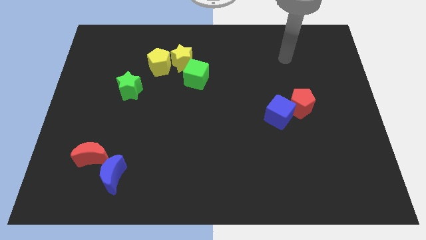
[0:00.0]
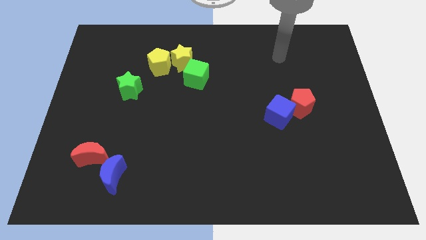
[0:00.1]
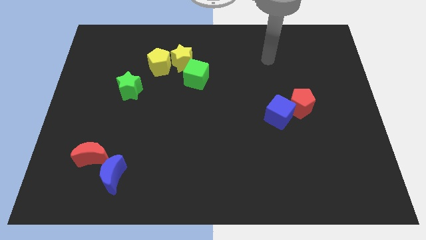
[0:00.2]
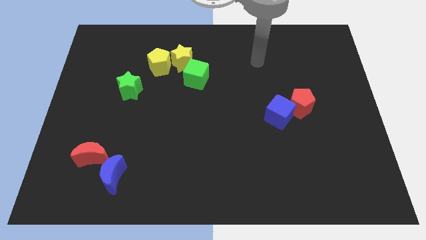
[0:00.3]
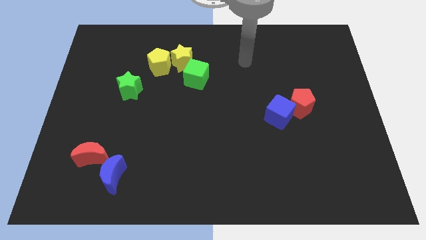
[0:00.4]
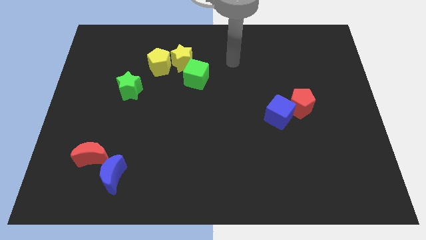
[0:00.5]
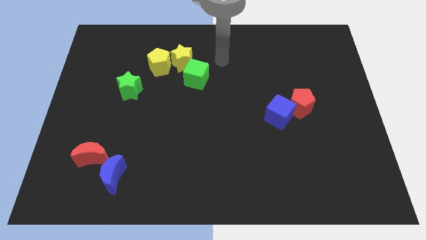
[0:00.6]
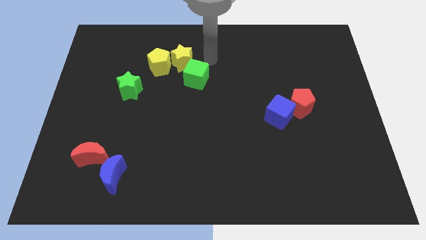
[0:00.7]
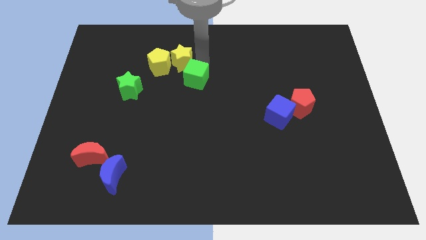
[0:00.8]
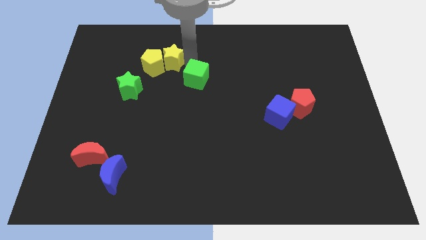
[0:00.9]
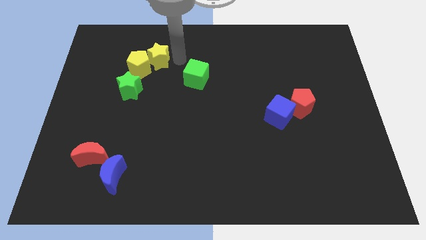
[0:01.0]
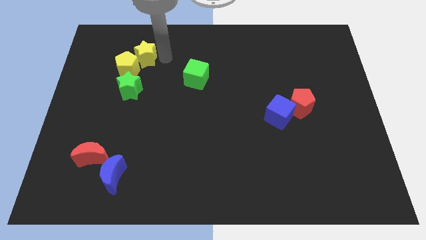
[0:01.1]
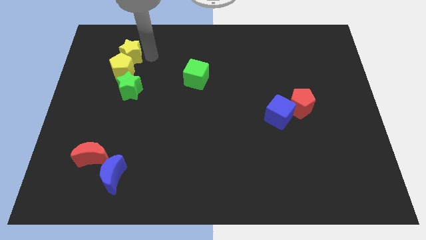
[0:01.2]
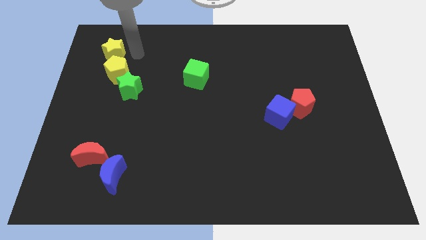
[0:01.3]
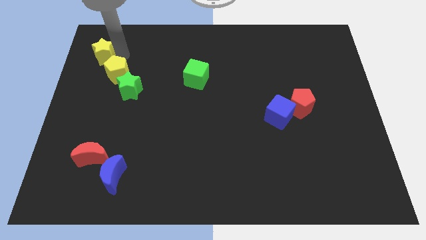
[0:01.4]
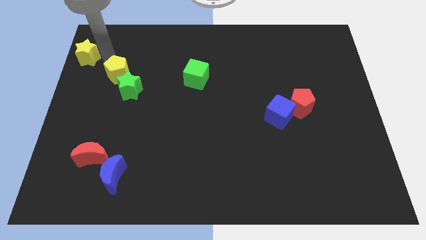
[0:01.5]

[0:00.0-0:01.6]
move the yellow pentagon away from the yellow star

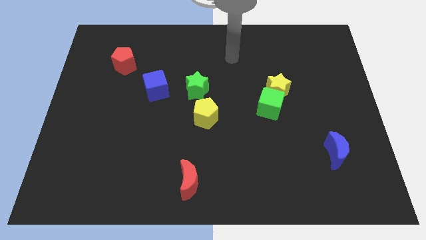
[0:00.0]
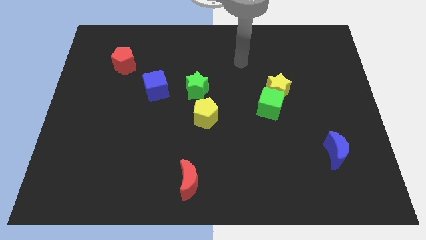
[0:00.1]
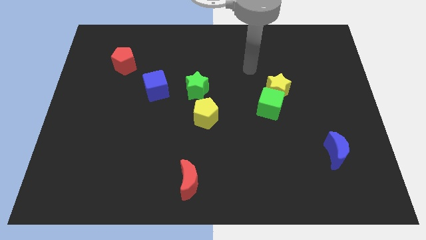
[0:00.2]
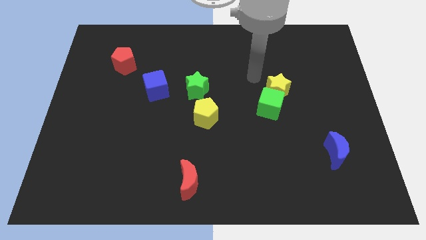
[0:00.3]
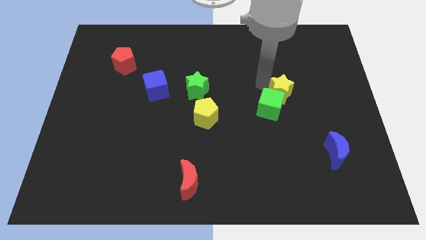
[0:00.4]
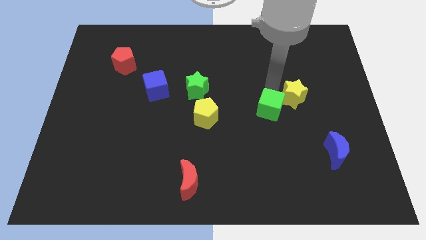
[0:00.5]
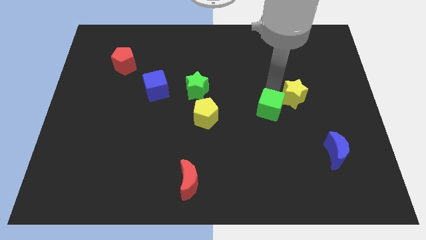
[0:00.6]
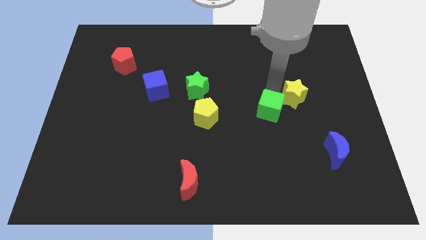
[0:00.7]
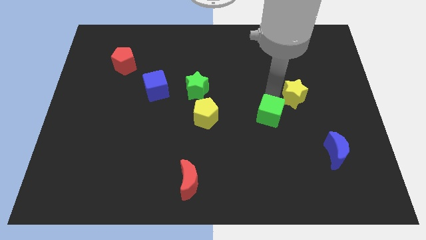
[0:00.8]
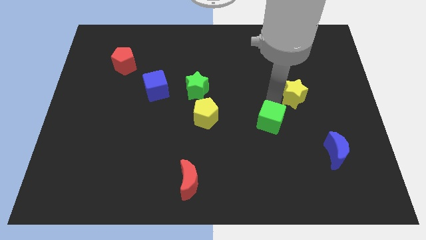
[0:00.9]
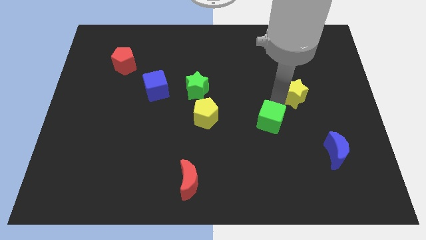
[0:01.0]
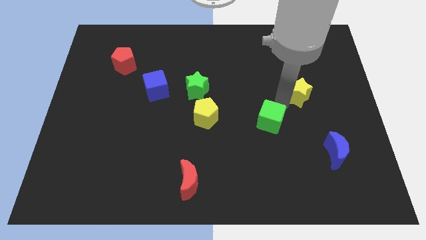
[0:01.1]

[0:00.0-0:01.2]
pull the green cube apart from the yellow star

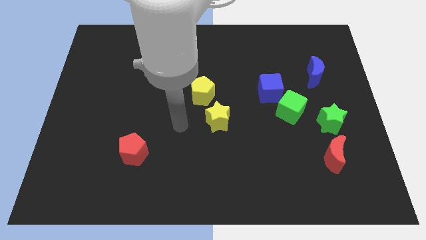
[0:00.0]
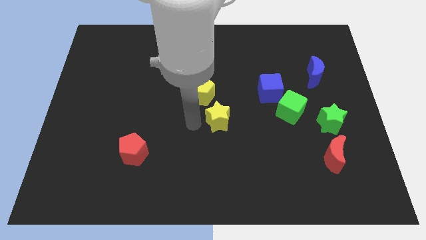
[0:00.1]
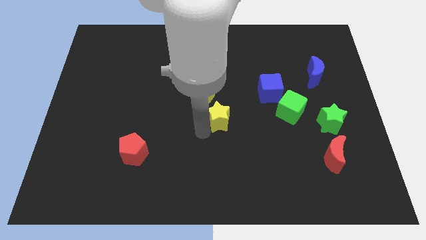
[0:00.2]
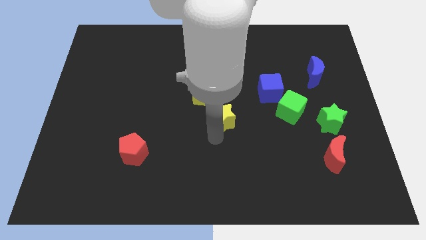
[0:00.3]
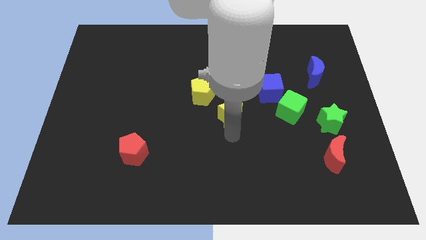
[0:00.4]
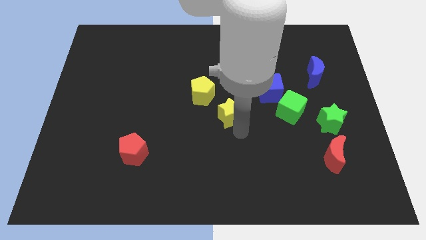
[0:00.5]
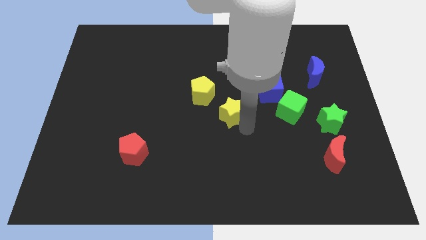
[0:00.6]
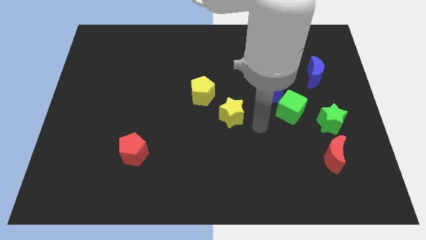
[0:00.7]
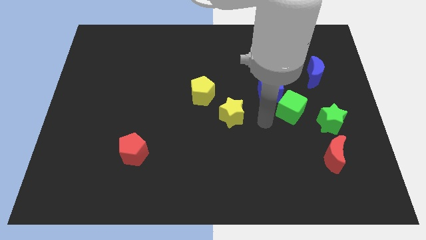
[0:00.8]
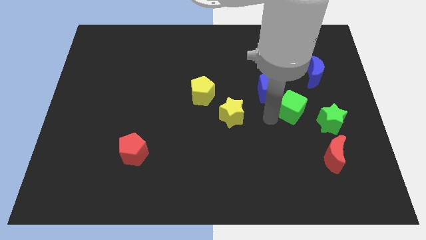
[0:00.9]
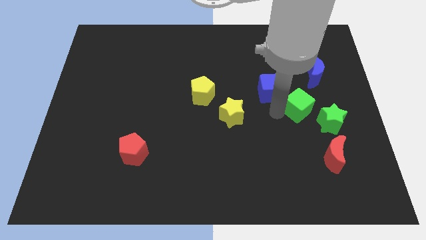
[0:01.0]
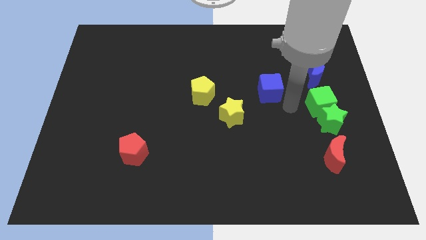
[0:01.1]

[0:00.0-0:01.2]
pull the blue cube apart from the green cube

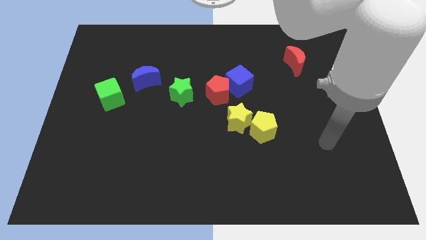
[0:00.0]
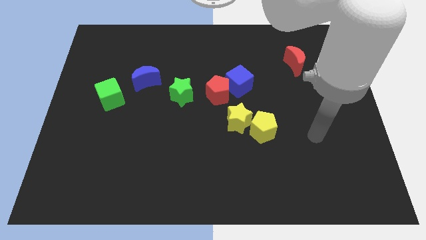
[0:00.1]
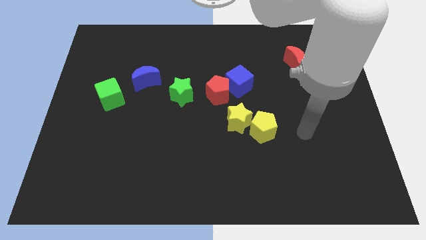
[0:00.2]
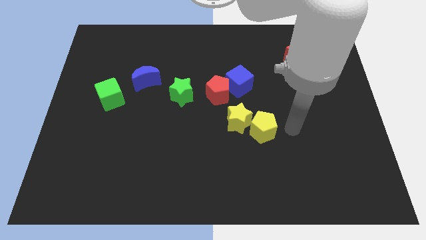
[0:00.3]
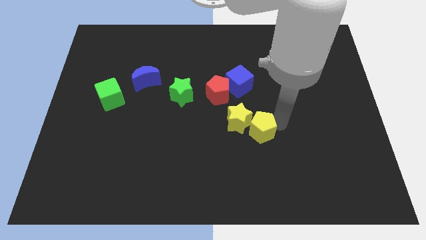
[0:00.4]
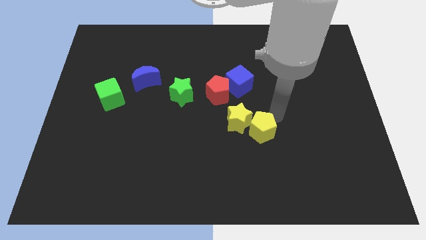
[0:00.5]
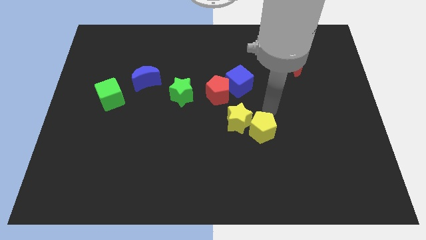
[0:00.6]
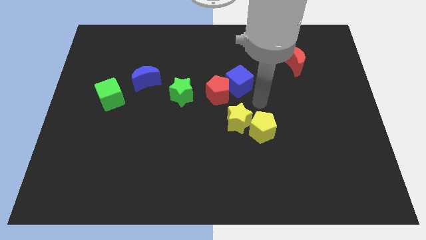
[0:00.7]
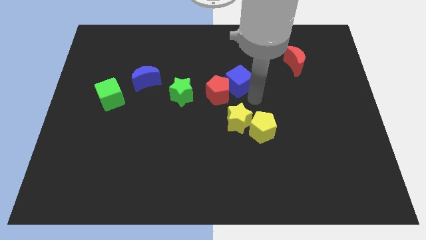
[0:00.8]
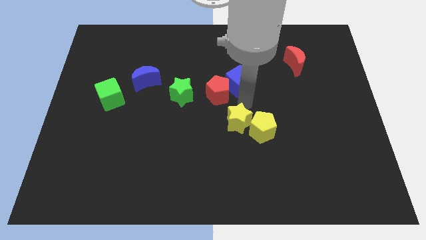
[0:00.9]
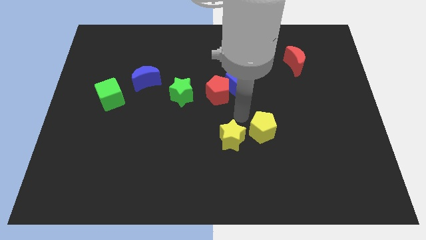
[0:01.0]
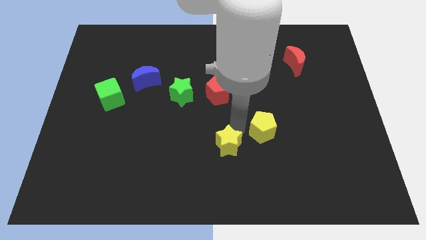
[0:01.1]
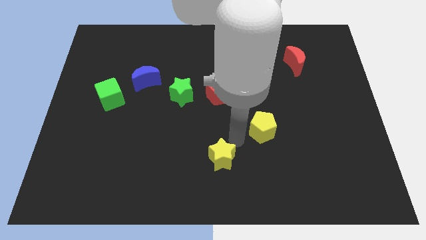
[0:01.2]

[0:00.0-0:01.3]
pull the yellow pentagon apart from the yellow star

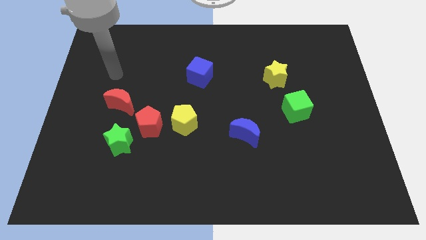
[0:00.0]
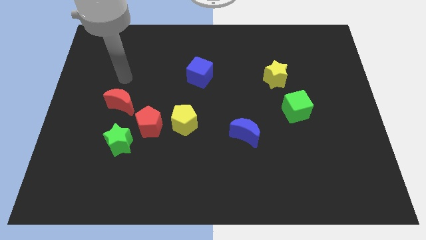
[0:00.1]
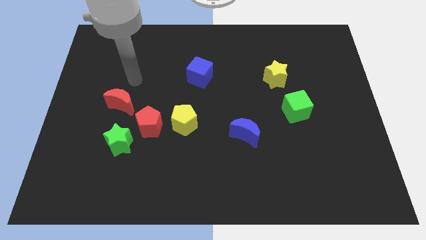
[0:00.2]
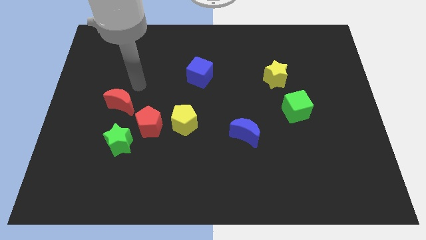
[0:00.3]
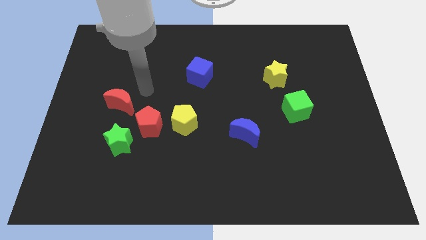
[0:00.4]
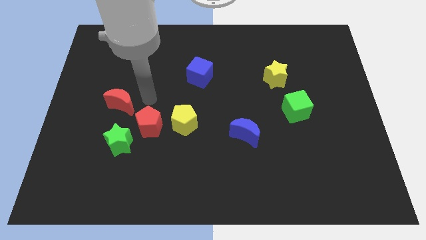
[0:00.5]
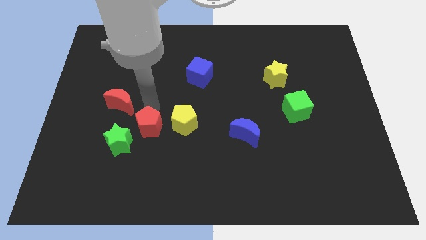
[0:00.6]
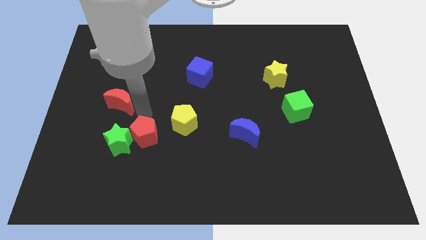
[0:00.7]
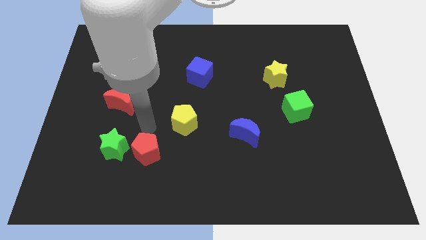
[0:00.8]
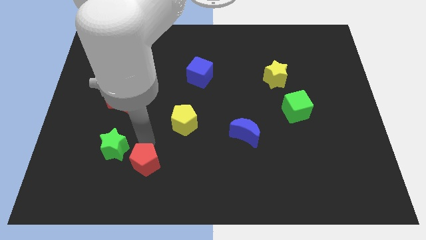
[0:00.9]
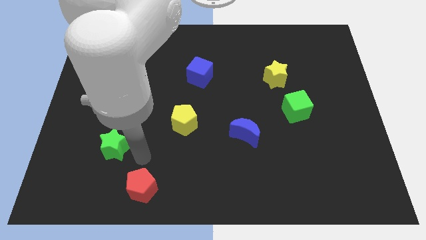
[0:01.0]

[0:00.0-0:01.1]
separate the green star from the red pentagon

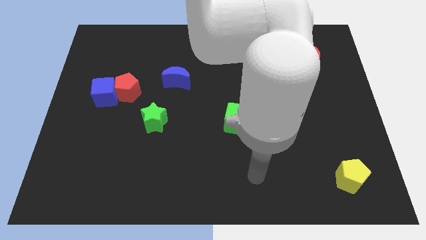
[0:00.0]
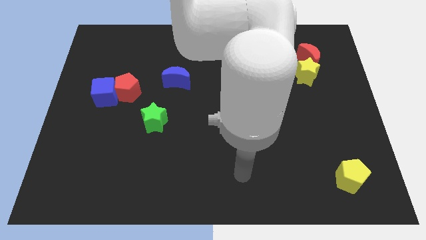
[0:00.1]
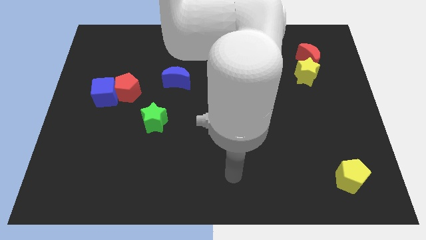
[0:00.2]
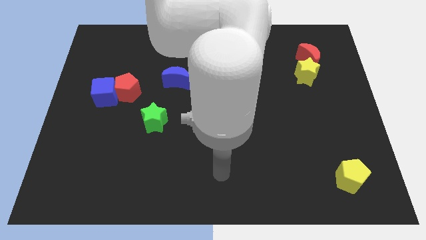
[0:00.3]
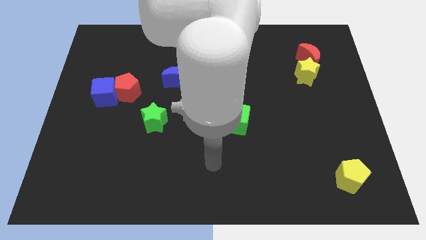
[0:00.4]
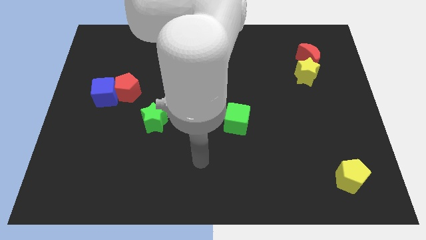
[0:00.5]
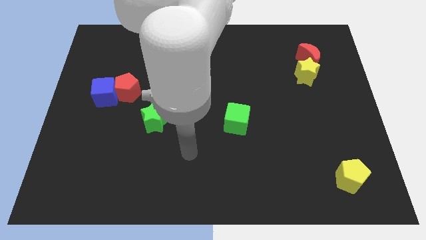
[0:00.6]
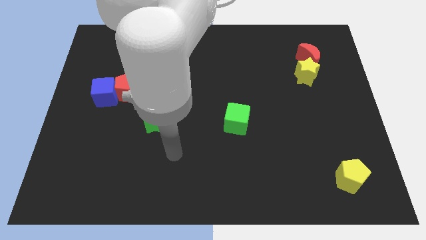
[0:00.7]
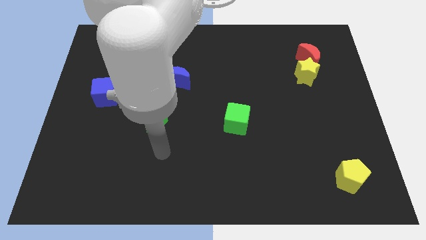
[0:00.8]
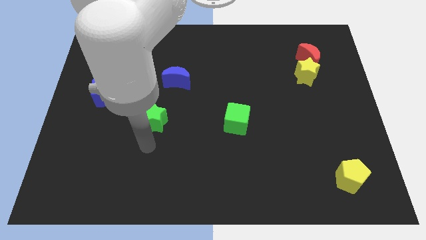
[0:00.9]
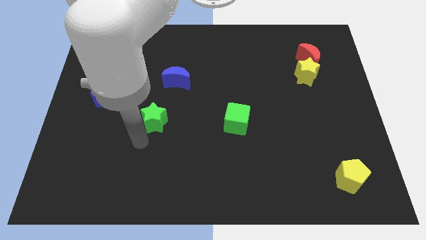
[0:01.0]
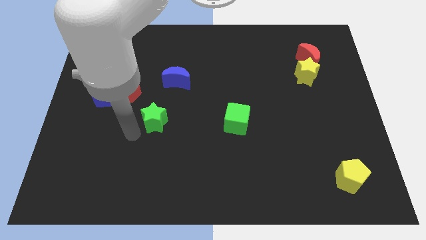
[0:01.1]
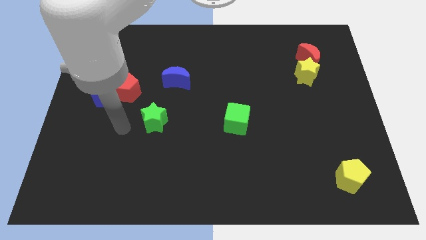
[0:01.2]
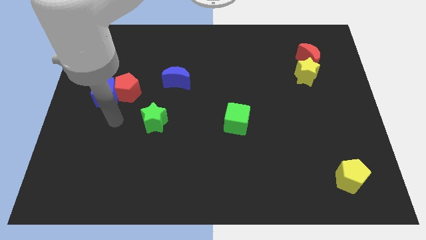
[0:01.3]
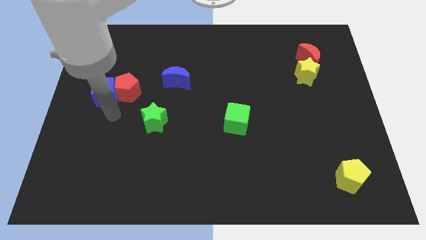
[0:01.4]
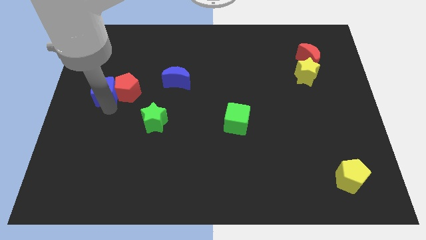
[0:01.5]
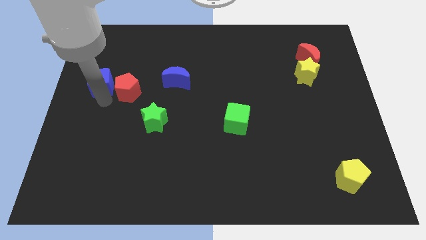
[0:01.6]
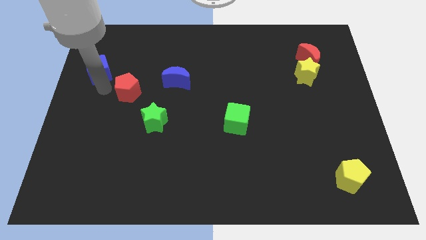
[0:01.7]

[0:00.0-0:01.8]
separate the red pentagon from the blue cube

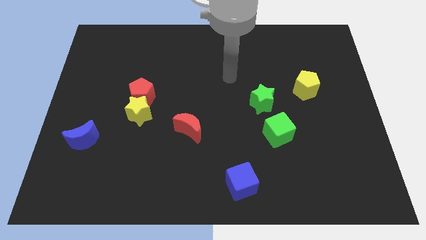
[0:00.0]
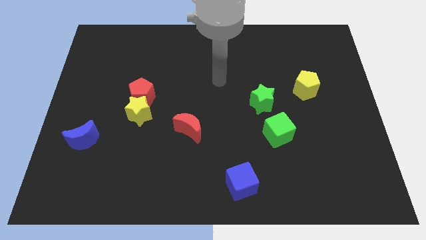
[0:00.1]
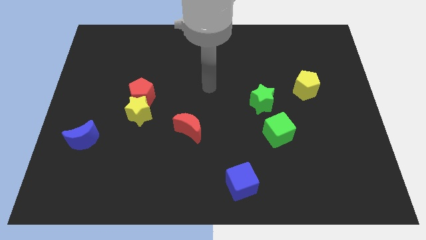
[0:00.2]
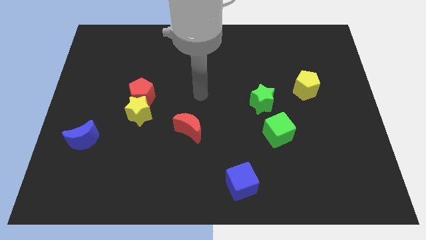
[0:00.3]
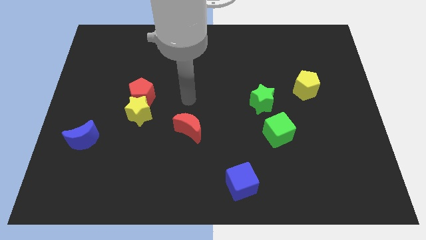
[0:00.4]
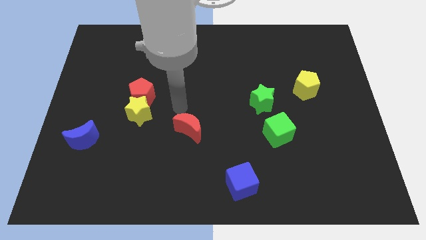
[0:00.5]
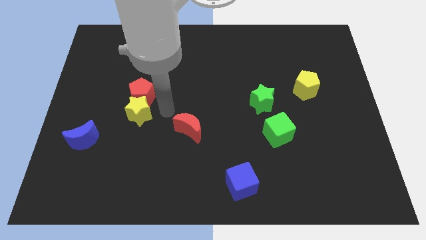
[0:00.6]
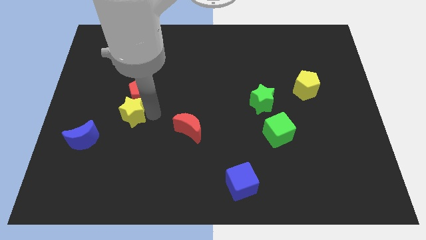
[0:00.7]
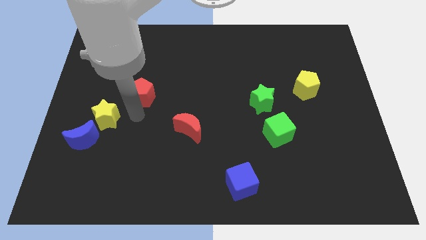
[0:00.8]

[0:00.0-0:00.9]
pull the red pentagon apart from the yellow star

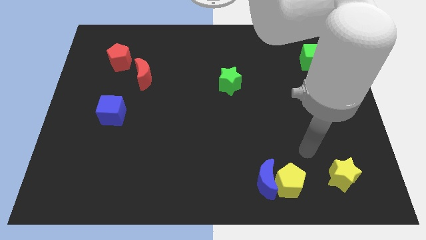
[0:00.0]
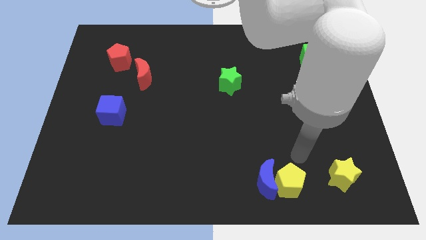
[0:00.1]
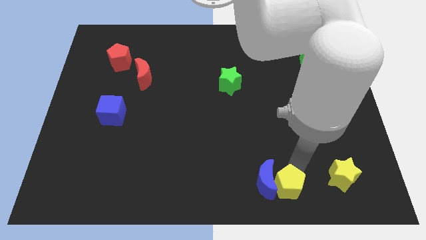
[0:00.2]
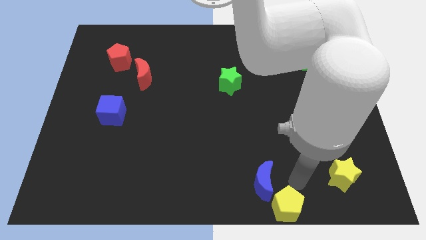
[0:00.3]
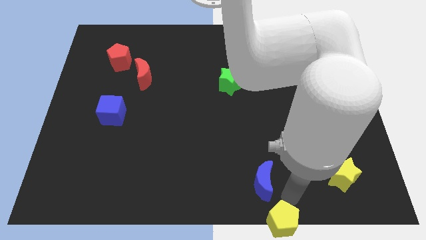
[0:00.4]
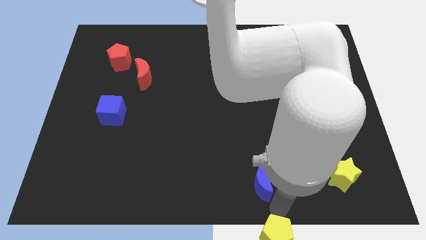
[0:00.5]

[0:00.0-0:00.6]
pull the blue moon apart from the yellow pentagon
